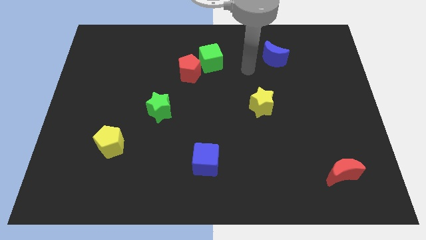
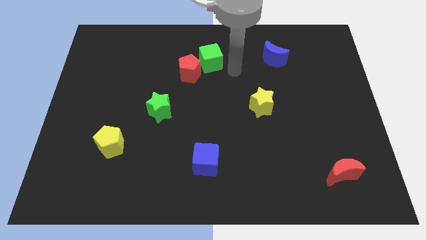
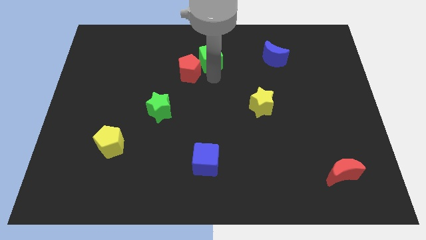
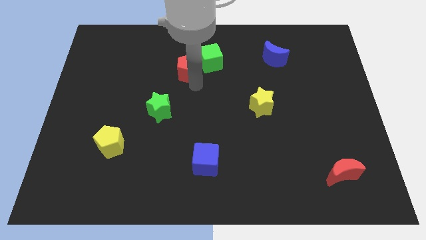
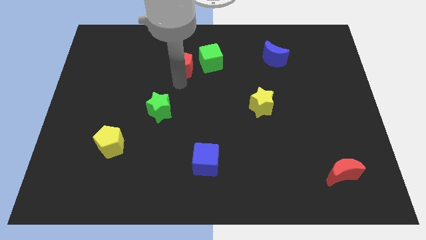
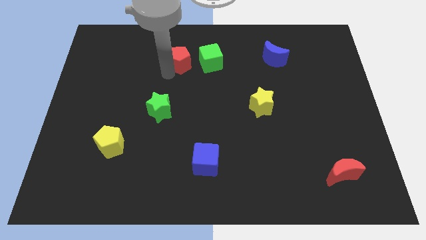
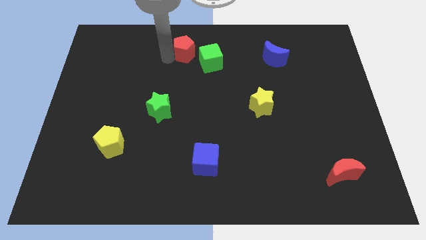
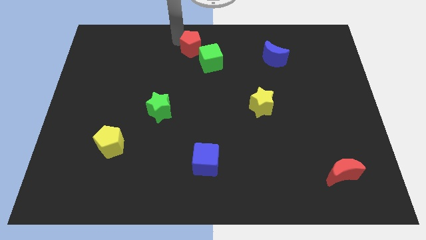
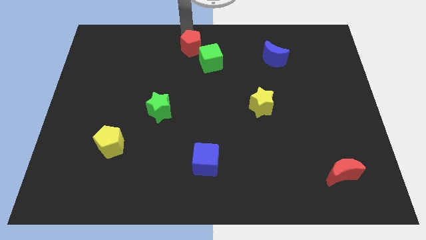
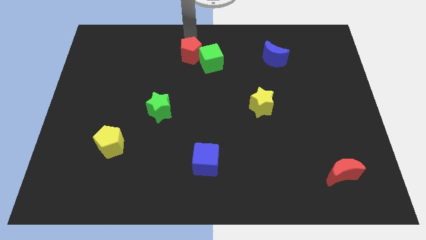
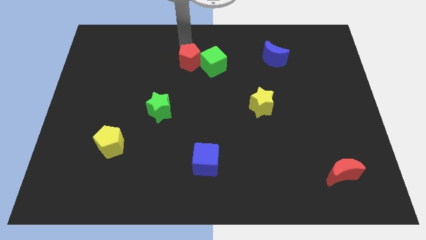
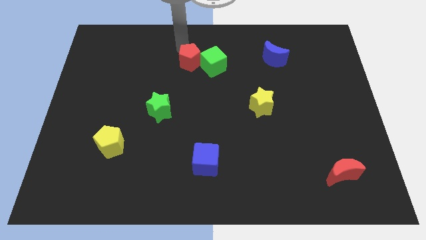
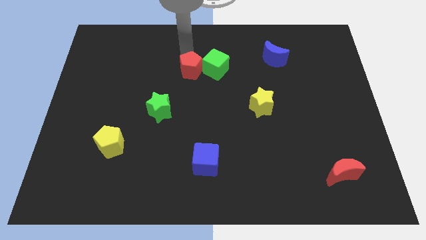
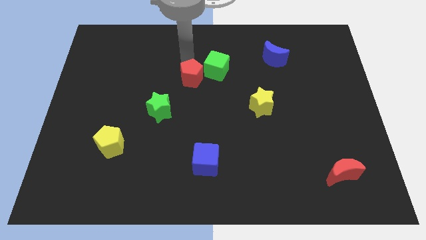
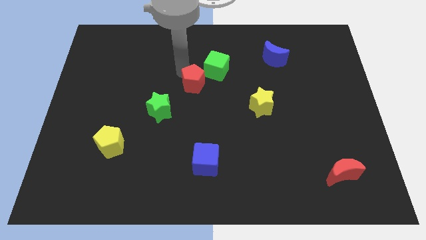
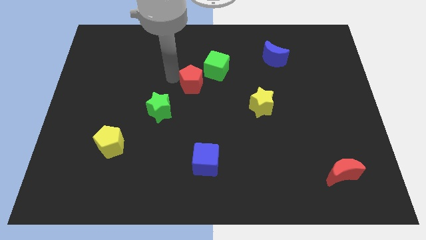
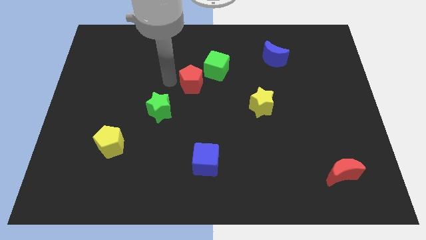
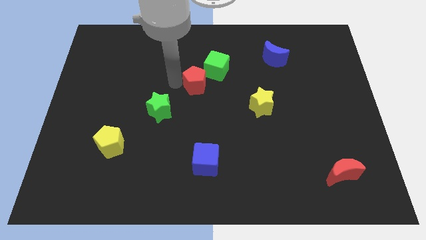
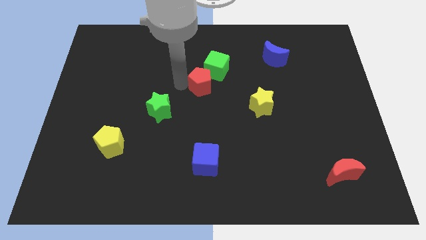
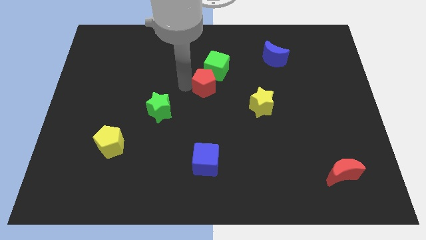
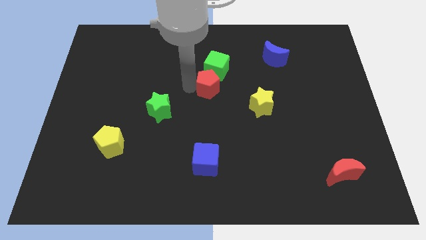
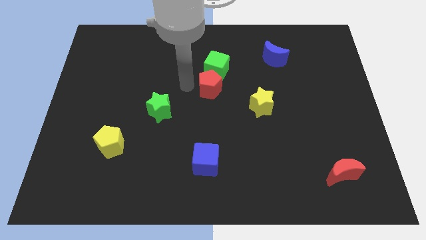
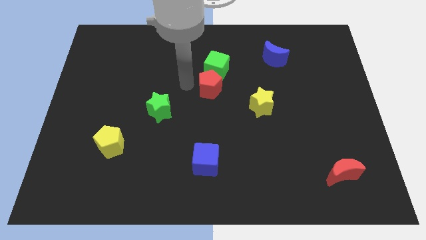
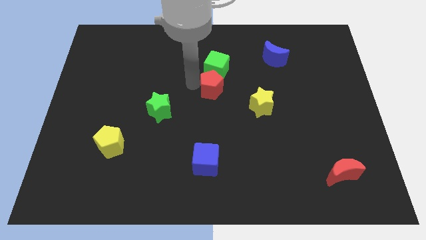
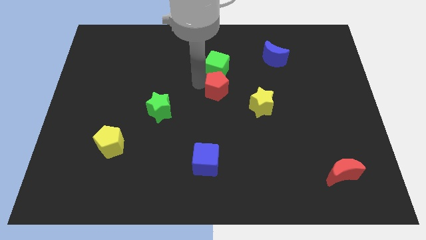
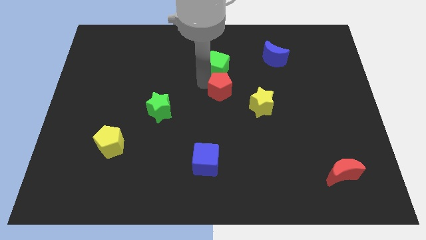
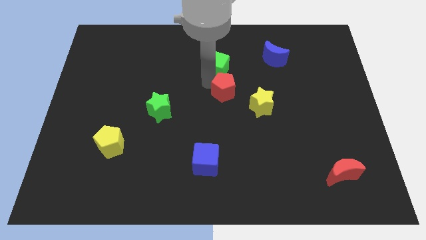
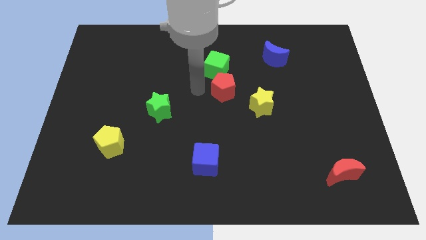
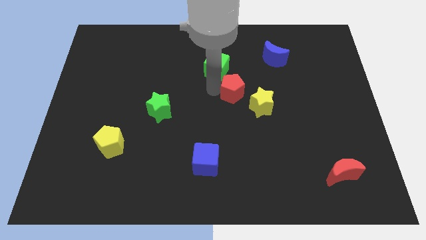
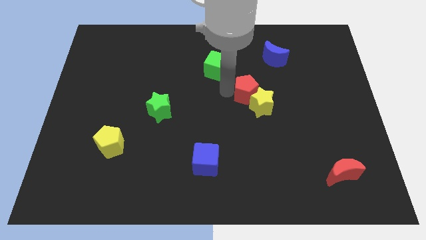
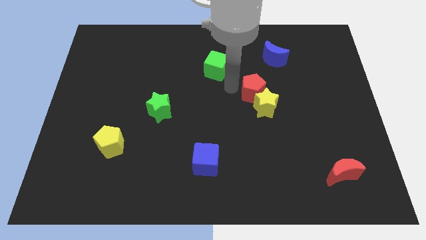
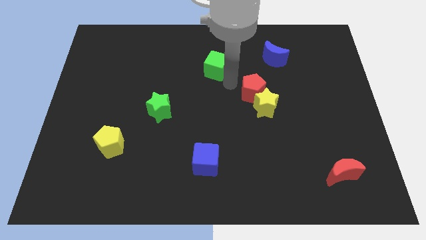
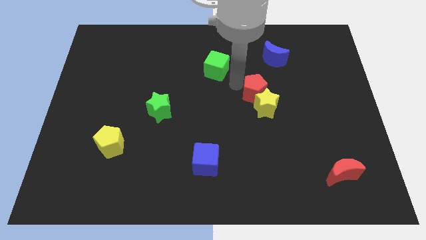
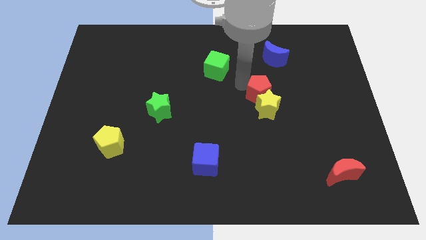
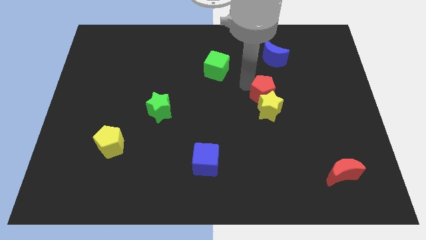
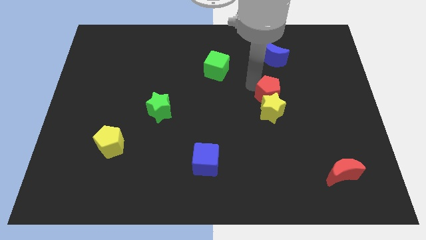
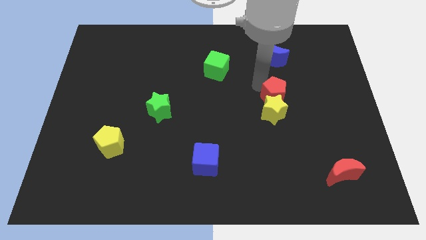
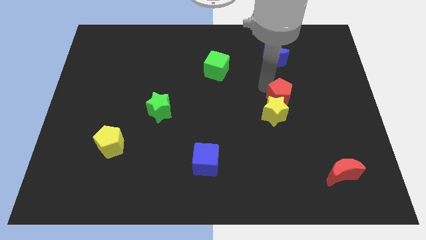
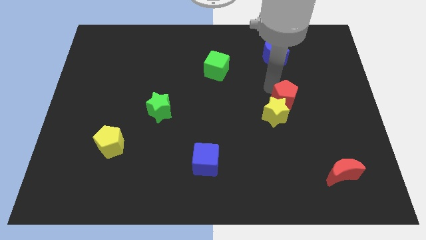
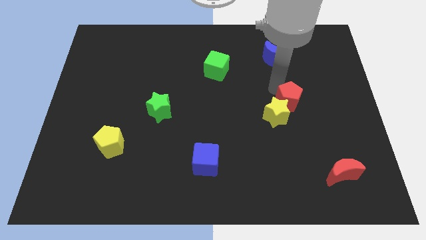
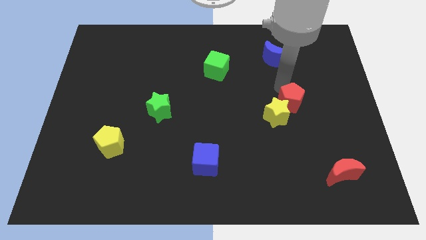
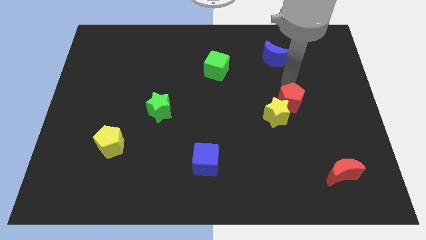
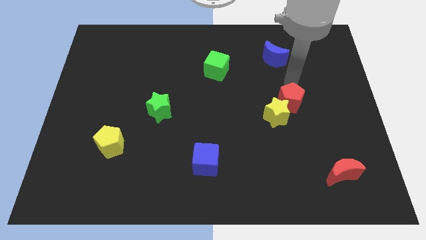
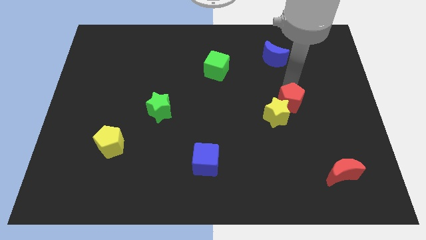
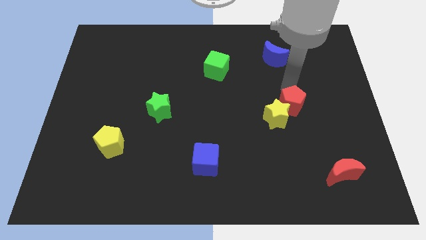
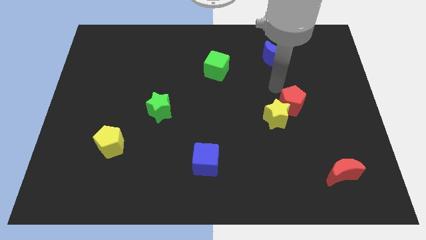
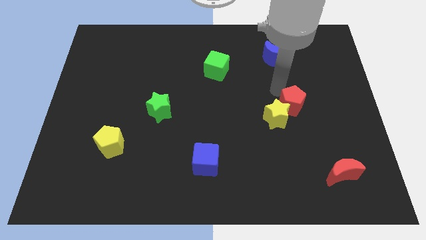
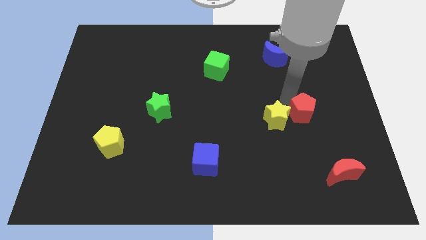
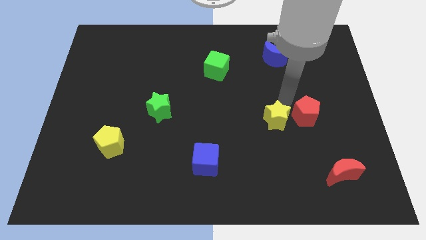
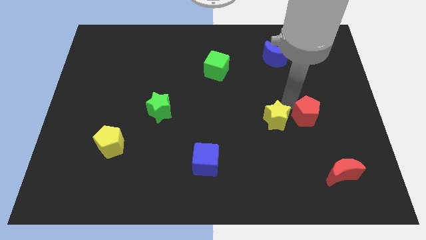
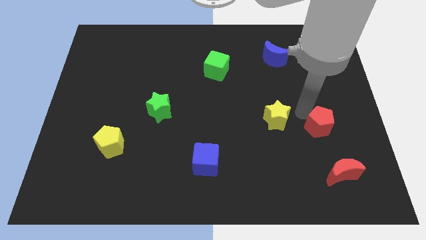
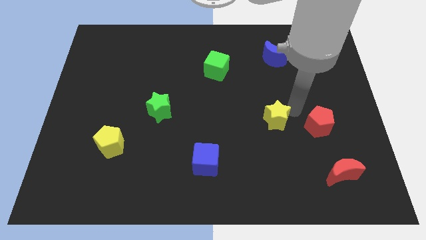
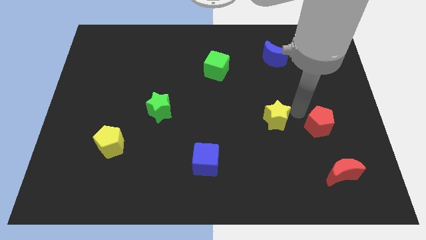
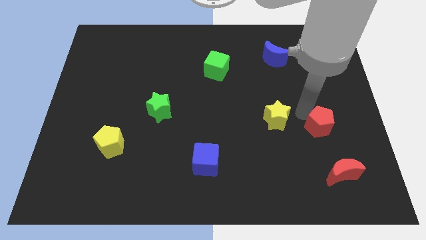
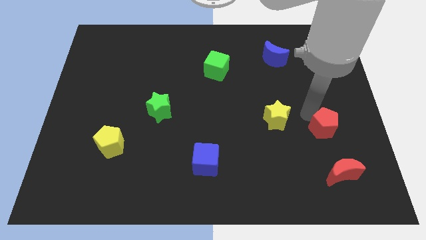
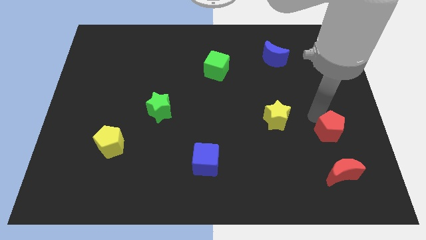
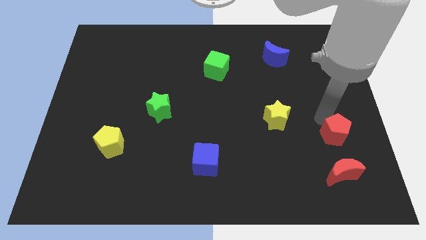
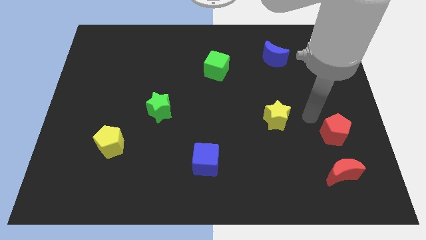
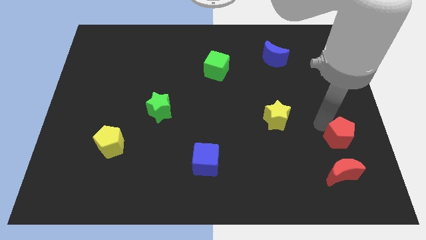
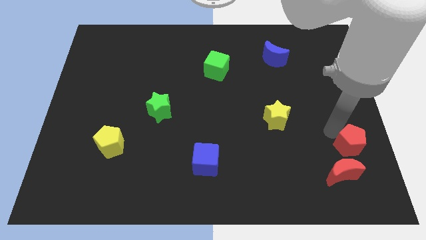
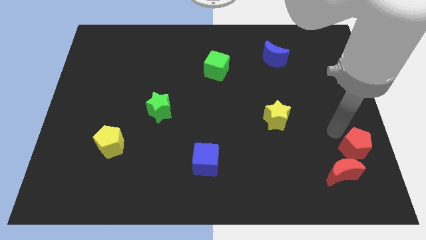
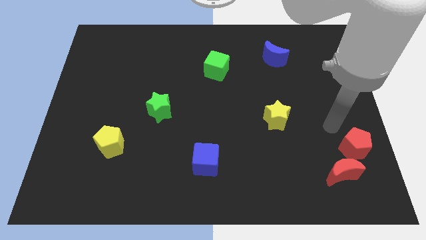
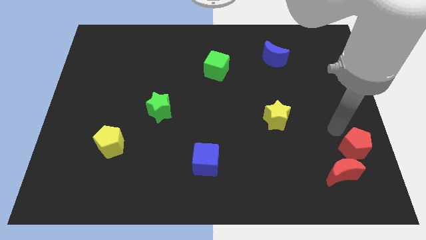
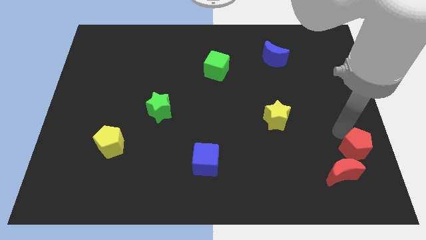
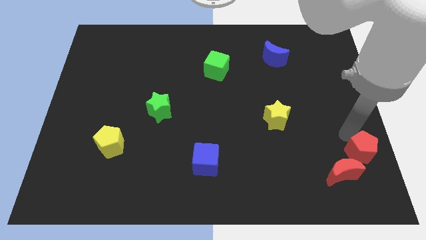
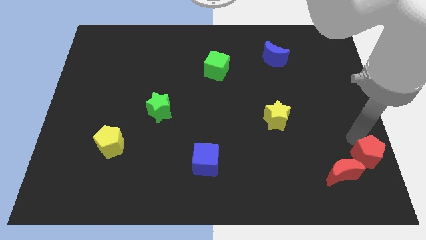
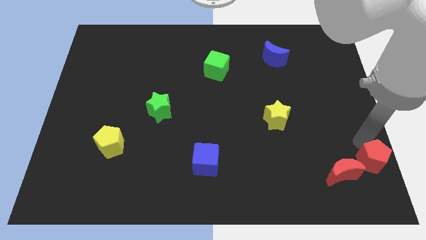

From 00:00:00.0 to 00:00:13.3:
move the red pentagon to the lower right corner
